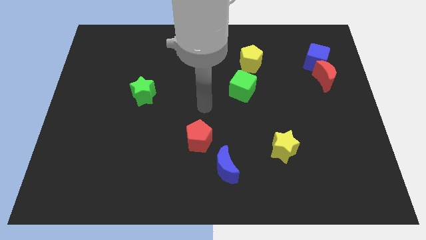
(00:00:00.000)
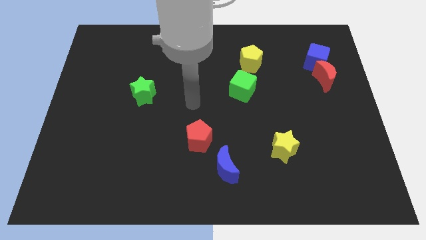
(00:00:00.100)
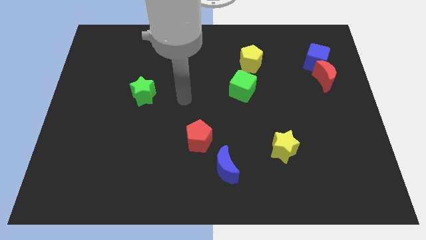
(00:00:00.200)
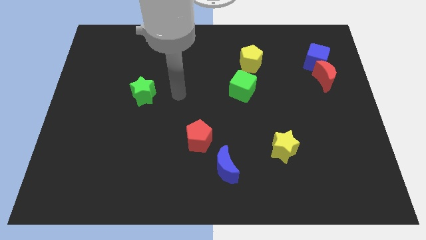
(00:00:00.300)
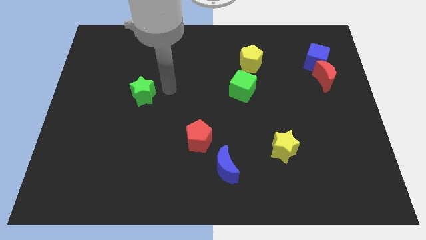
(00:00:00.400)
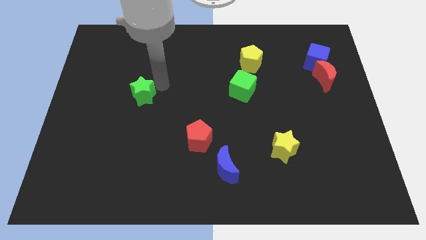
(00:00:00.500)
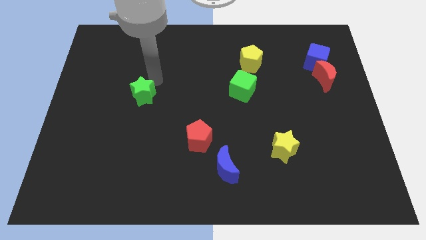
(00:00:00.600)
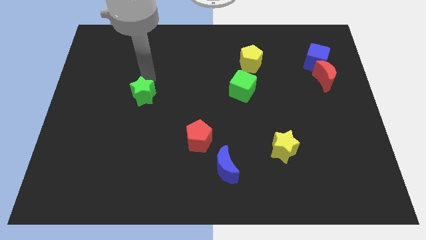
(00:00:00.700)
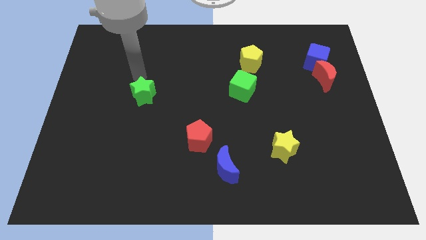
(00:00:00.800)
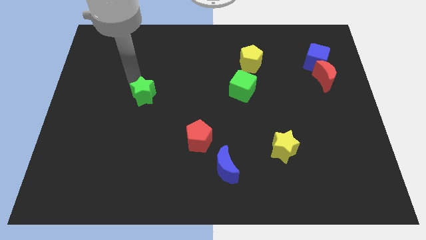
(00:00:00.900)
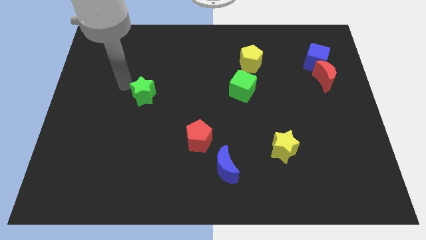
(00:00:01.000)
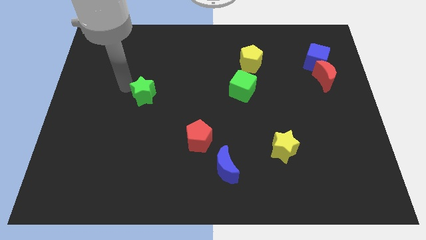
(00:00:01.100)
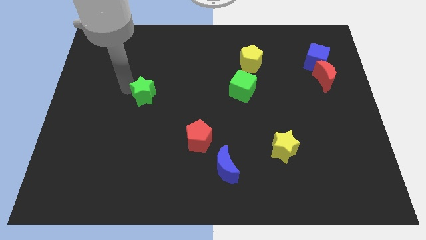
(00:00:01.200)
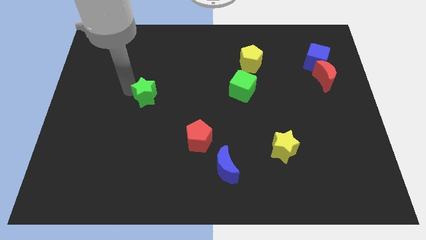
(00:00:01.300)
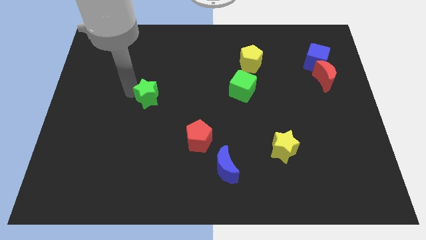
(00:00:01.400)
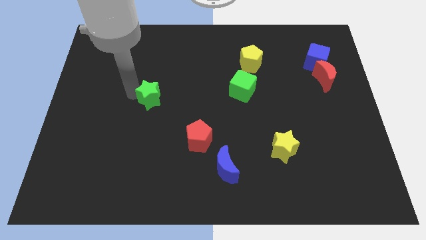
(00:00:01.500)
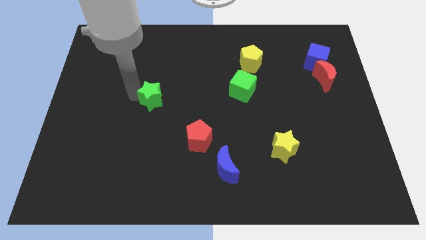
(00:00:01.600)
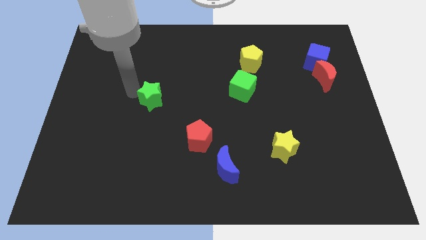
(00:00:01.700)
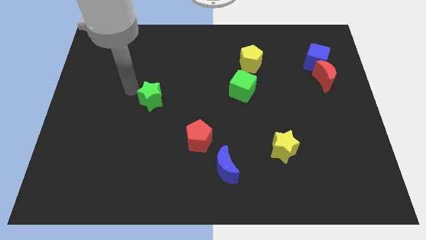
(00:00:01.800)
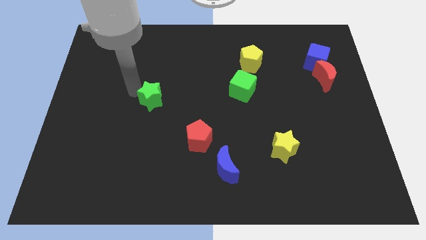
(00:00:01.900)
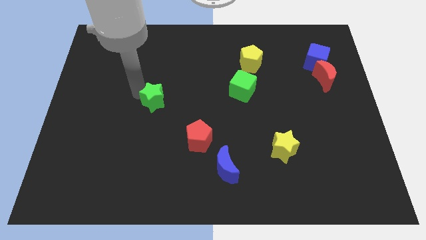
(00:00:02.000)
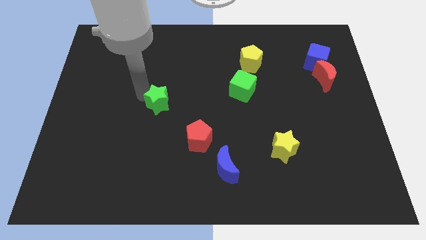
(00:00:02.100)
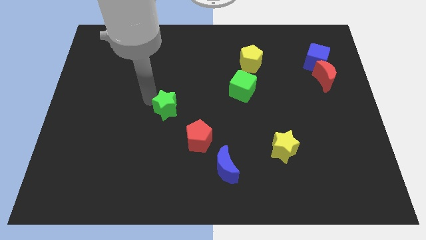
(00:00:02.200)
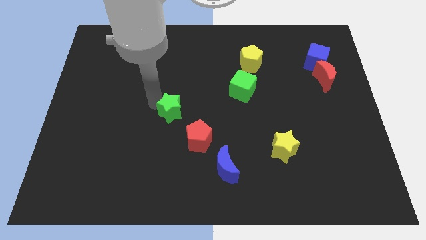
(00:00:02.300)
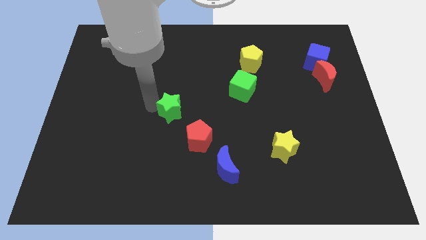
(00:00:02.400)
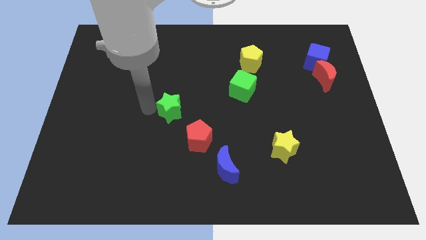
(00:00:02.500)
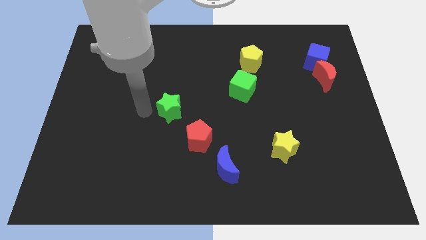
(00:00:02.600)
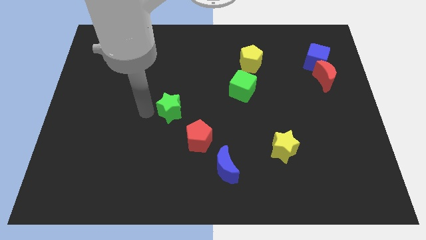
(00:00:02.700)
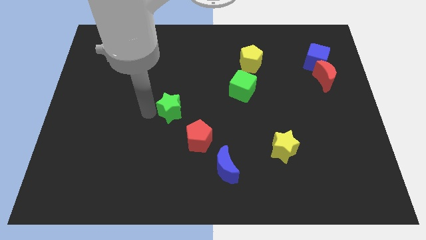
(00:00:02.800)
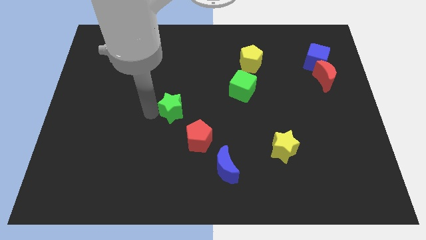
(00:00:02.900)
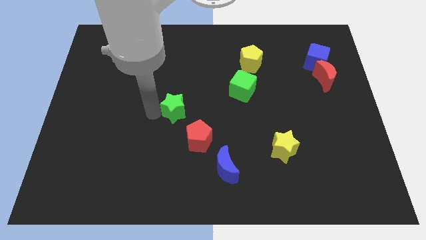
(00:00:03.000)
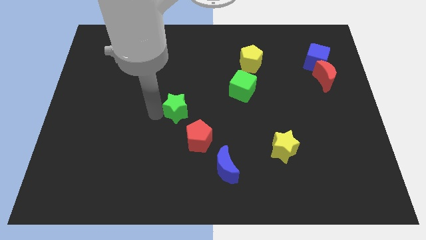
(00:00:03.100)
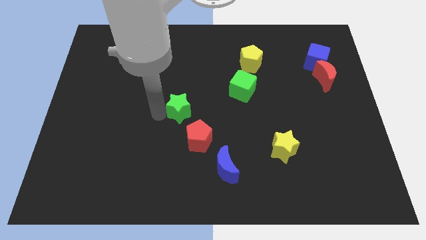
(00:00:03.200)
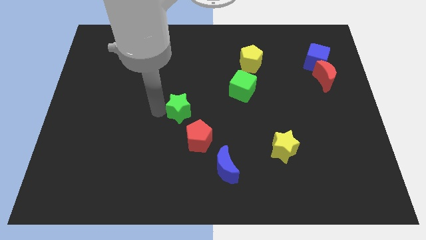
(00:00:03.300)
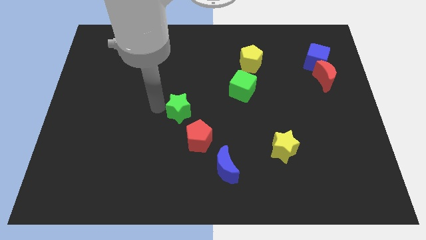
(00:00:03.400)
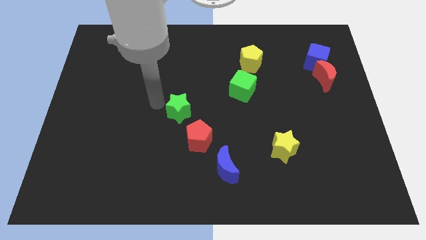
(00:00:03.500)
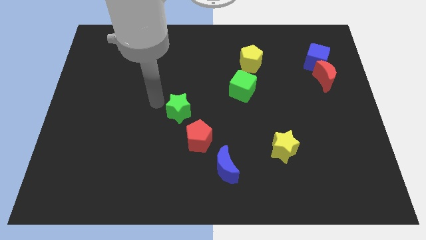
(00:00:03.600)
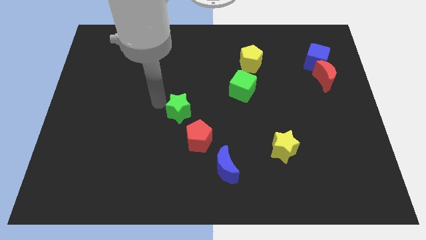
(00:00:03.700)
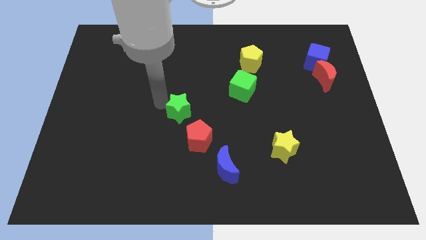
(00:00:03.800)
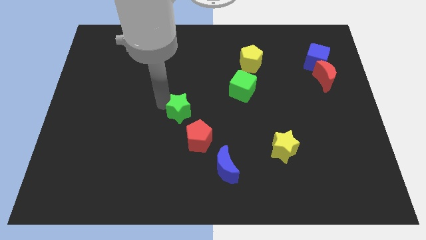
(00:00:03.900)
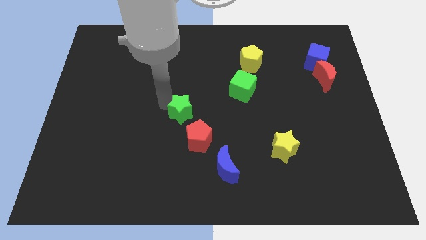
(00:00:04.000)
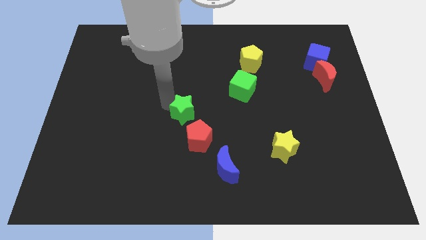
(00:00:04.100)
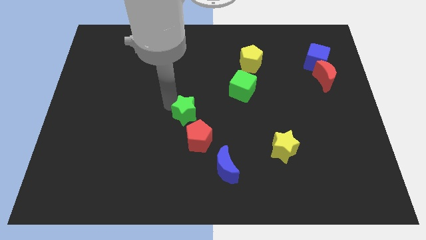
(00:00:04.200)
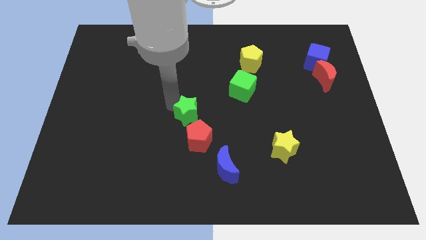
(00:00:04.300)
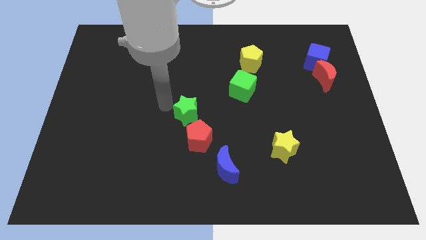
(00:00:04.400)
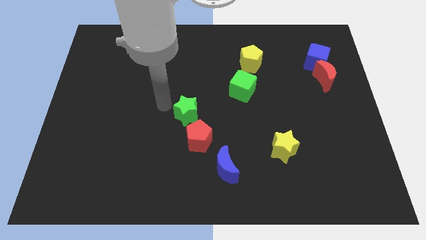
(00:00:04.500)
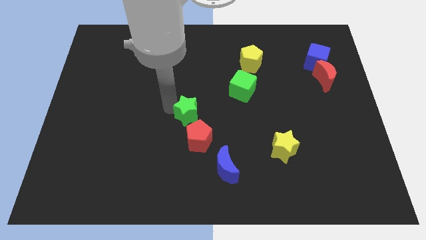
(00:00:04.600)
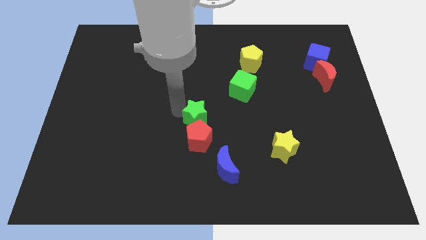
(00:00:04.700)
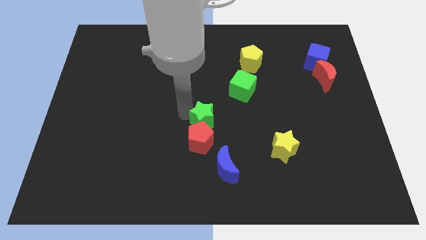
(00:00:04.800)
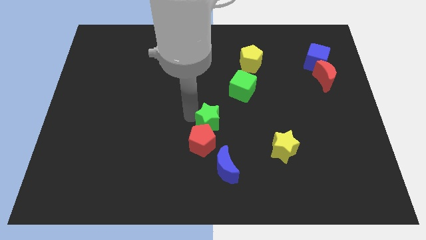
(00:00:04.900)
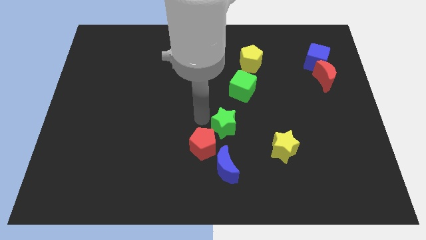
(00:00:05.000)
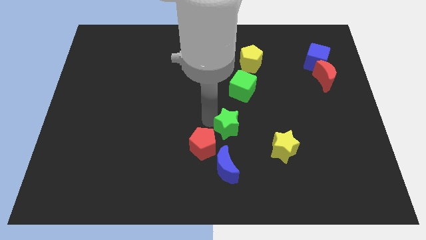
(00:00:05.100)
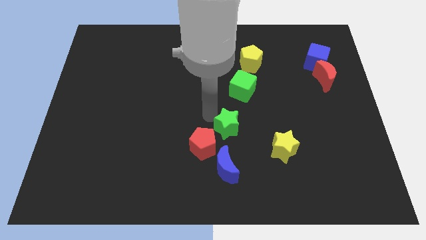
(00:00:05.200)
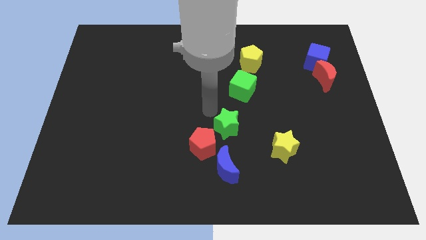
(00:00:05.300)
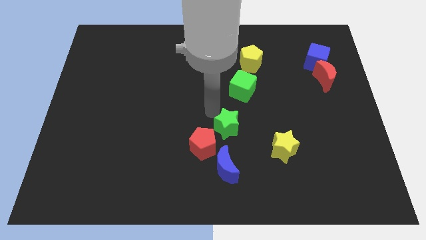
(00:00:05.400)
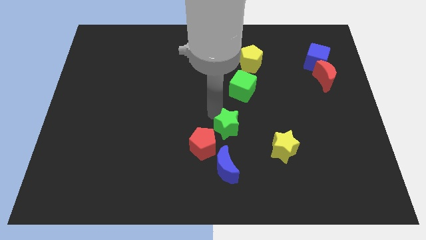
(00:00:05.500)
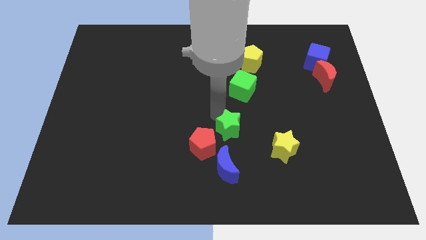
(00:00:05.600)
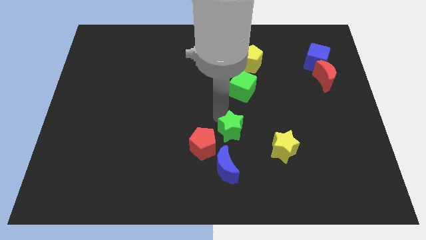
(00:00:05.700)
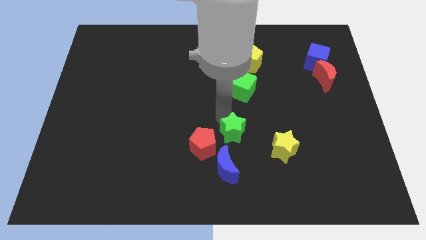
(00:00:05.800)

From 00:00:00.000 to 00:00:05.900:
slide the green star to the top right of the blue moon

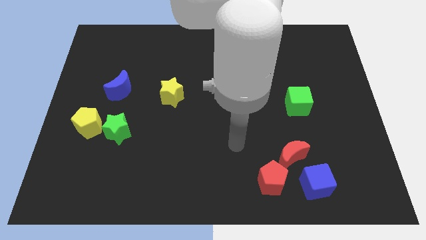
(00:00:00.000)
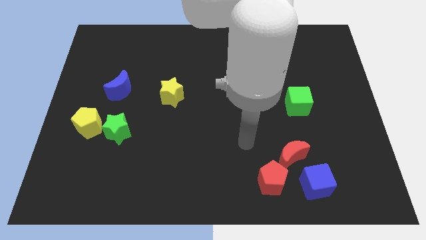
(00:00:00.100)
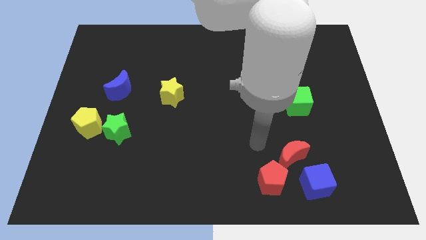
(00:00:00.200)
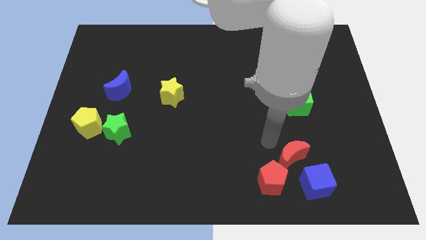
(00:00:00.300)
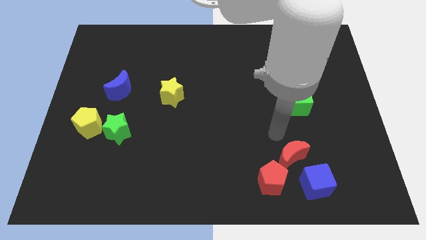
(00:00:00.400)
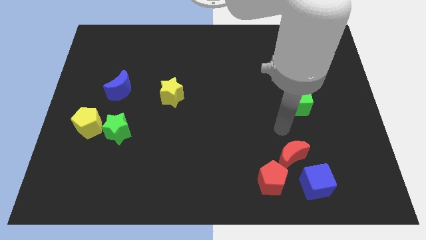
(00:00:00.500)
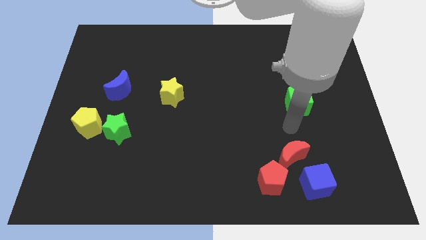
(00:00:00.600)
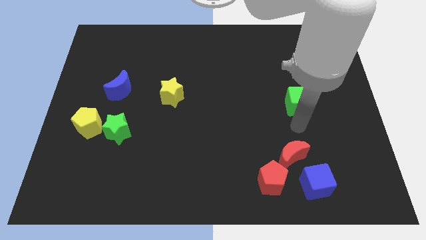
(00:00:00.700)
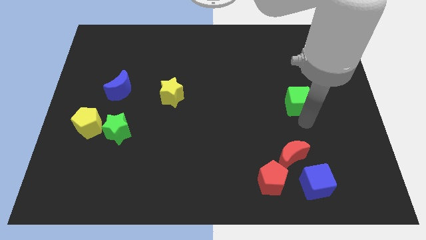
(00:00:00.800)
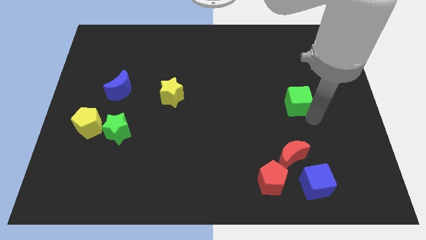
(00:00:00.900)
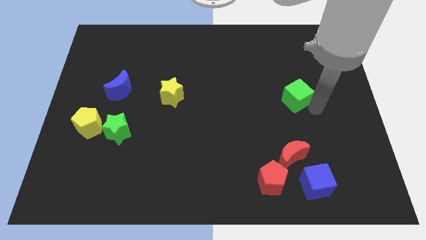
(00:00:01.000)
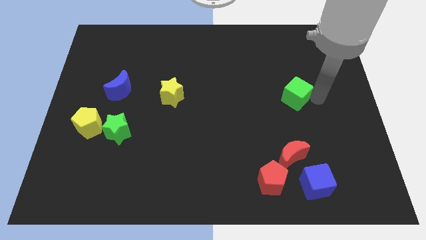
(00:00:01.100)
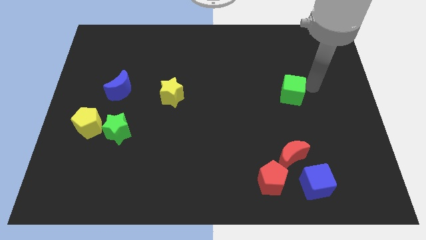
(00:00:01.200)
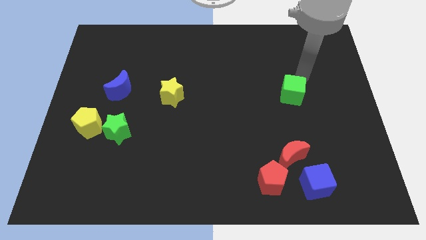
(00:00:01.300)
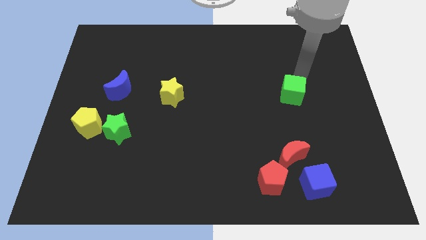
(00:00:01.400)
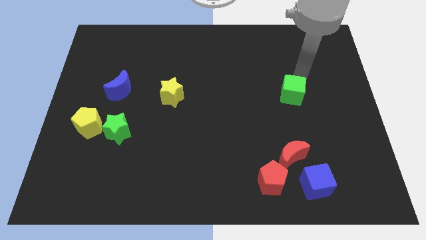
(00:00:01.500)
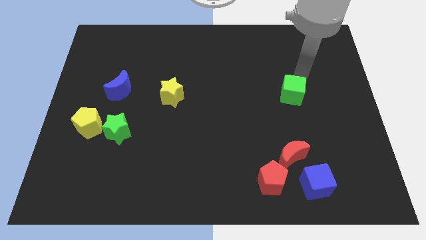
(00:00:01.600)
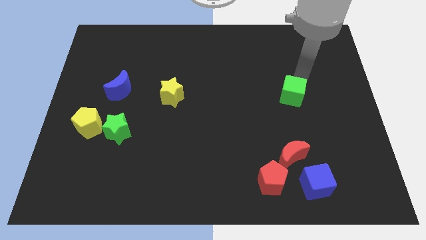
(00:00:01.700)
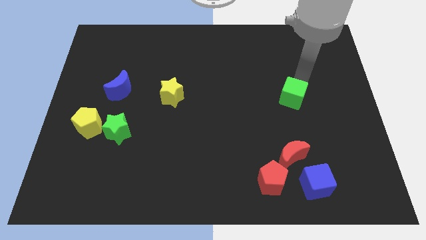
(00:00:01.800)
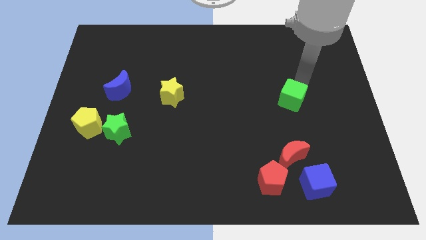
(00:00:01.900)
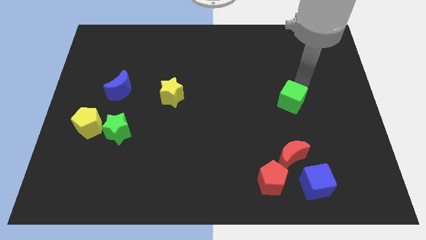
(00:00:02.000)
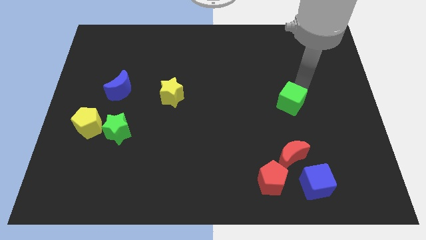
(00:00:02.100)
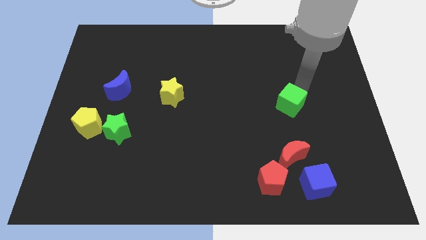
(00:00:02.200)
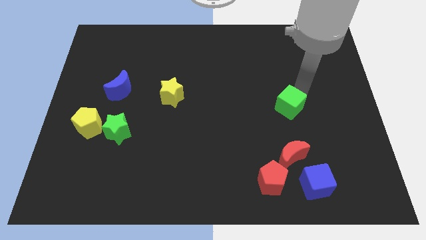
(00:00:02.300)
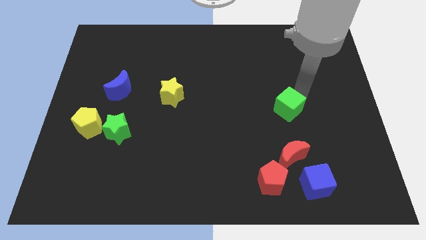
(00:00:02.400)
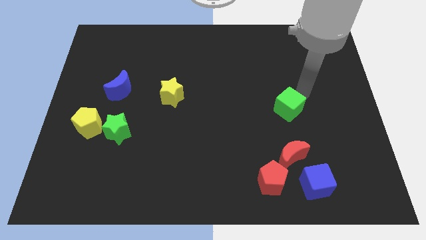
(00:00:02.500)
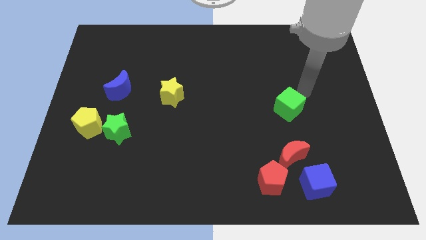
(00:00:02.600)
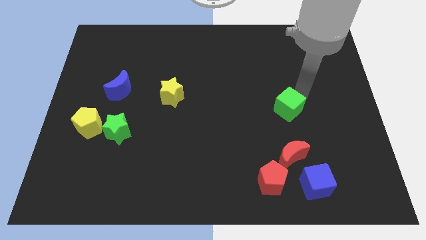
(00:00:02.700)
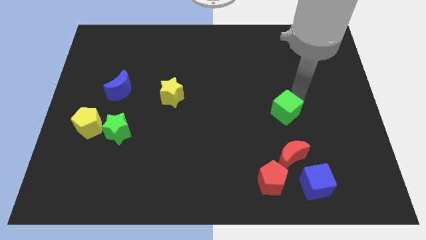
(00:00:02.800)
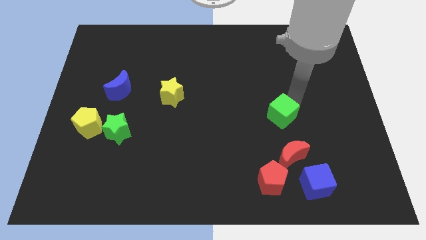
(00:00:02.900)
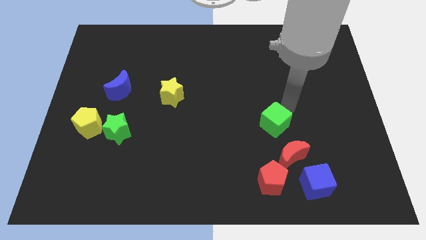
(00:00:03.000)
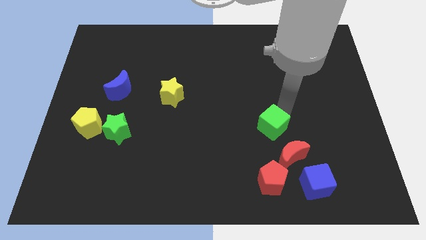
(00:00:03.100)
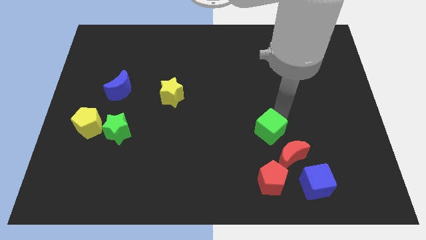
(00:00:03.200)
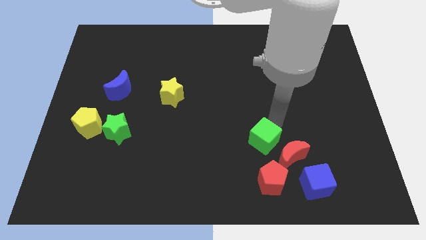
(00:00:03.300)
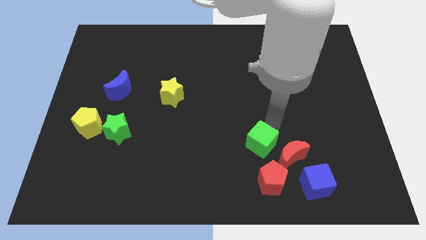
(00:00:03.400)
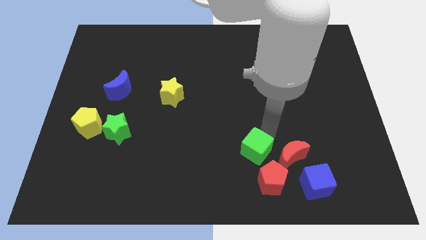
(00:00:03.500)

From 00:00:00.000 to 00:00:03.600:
put the green cube to the top left side of the red pentagon
